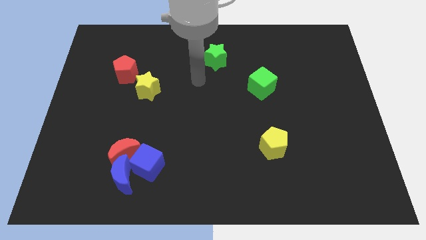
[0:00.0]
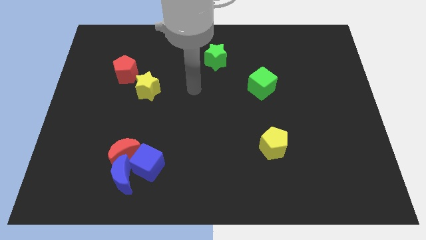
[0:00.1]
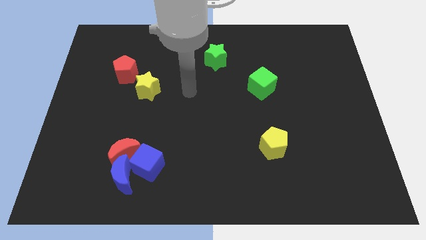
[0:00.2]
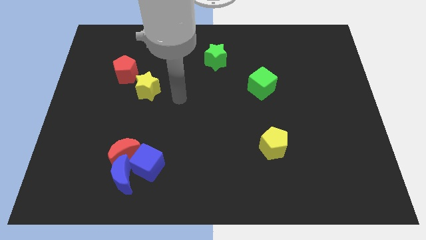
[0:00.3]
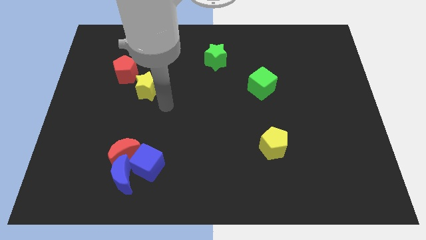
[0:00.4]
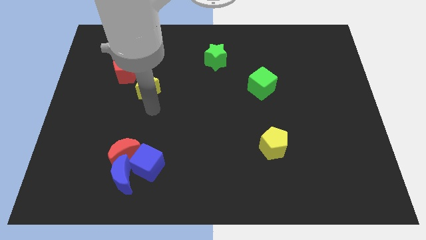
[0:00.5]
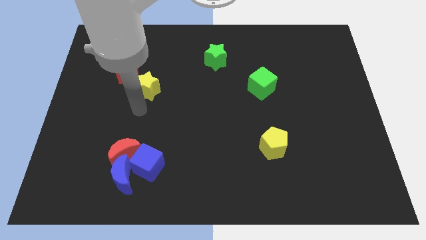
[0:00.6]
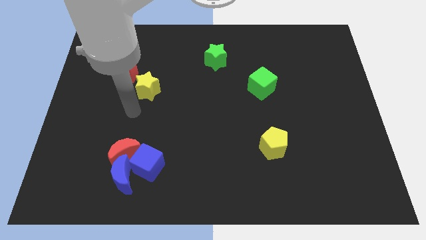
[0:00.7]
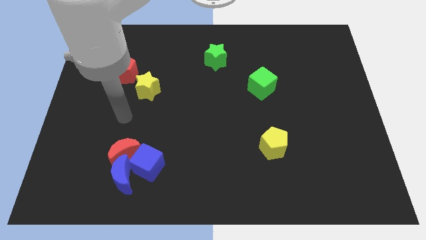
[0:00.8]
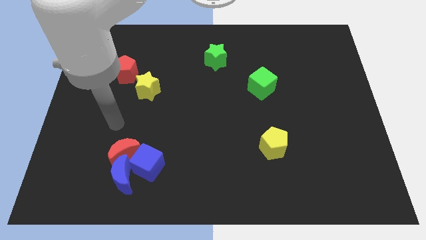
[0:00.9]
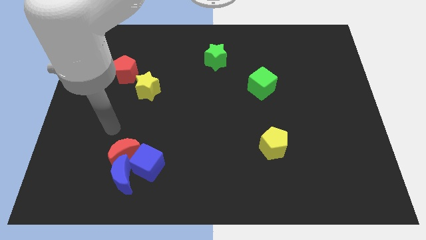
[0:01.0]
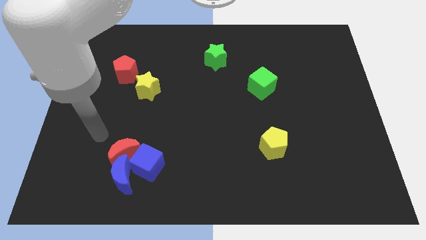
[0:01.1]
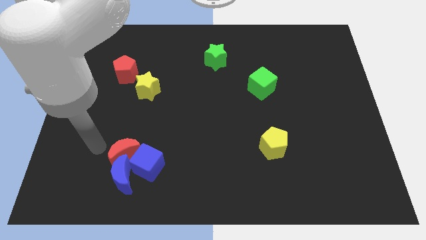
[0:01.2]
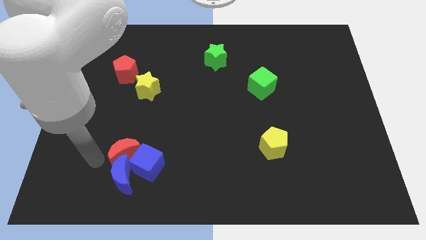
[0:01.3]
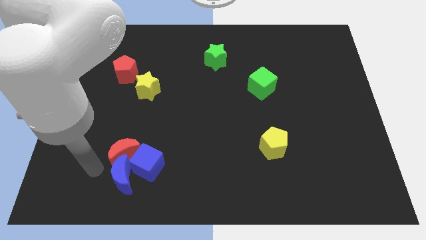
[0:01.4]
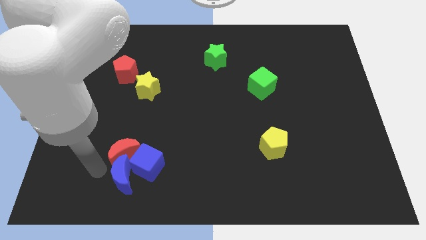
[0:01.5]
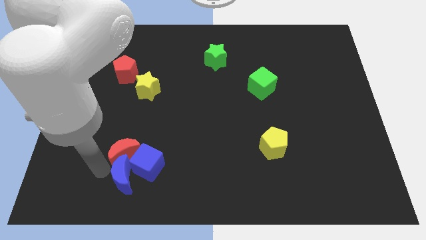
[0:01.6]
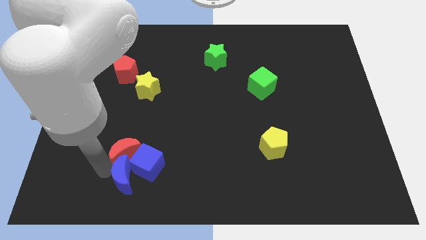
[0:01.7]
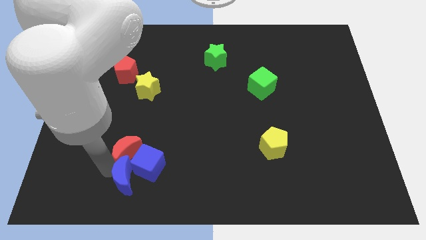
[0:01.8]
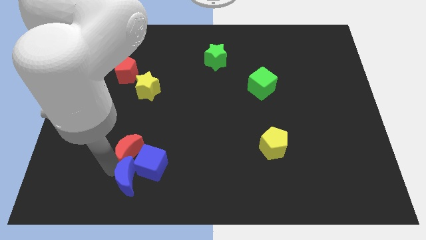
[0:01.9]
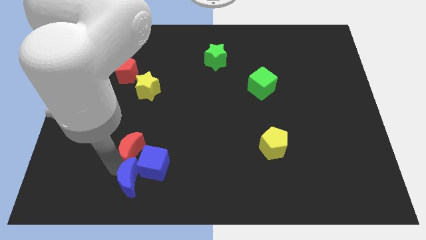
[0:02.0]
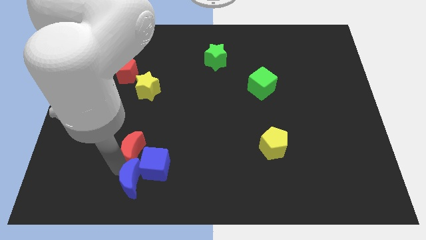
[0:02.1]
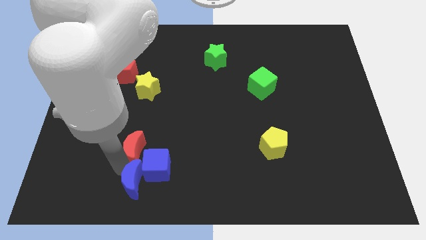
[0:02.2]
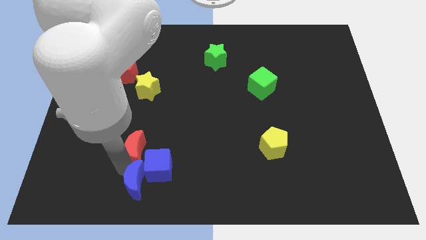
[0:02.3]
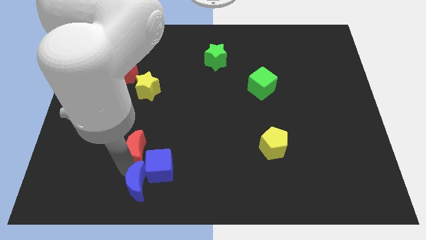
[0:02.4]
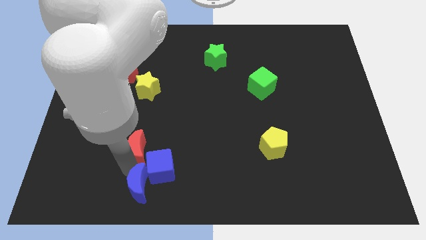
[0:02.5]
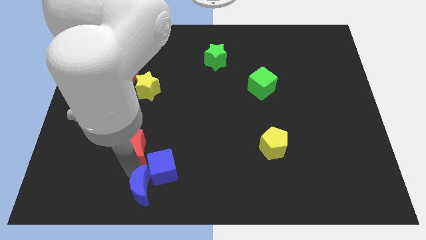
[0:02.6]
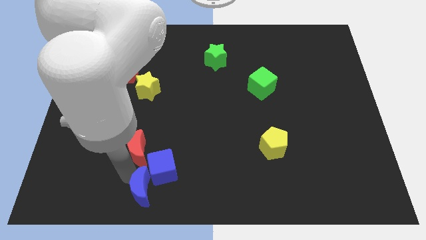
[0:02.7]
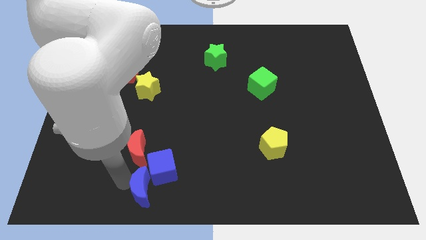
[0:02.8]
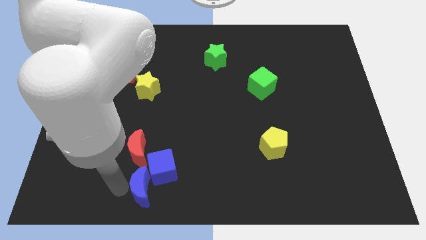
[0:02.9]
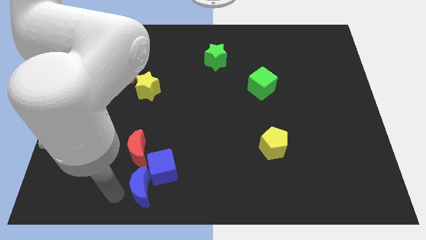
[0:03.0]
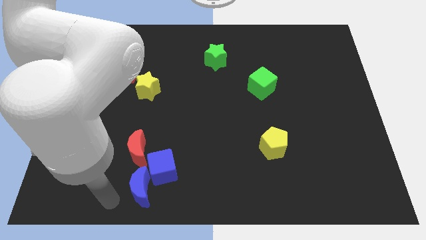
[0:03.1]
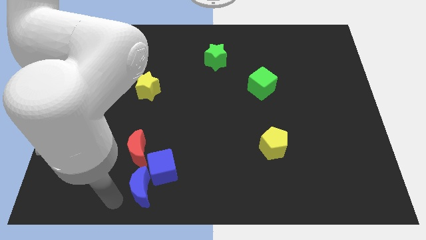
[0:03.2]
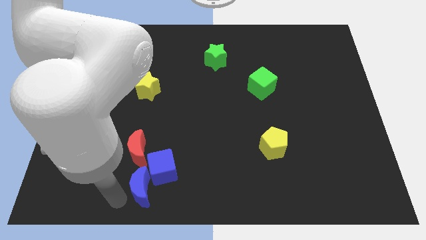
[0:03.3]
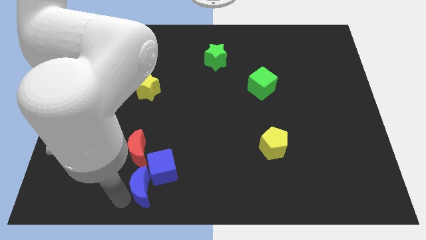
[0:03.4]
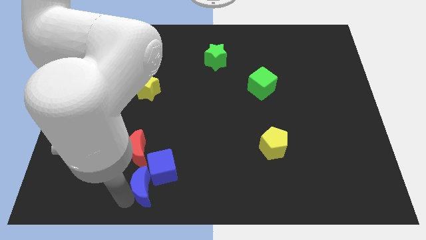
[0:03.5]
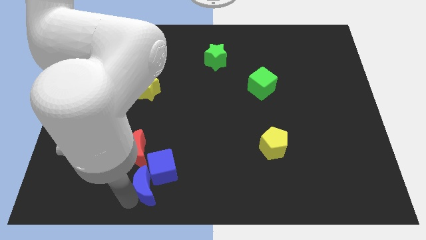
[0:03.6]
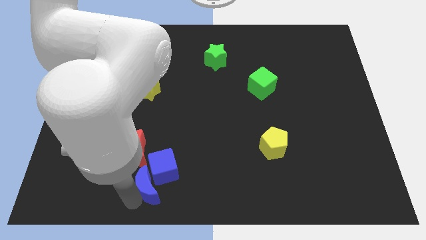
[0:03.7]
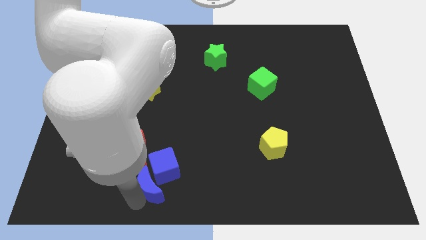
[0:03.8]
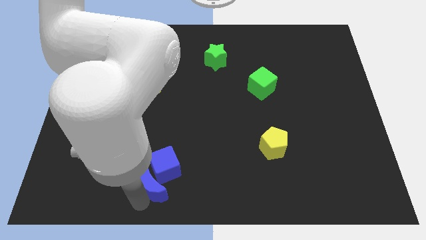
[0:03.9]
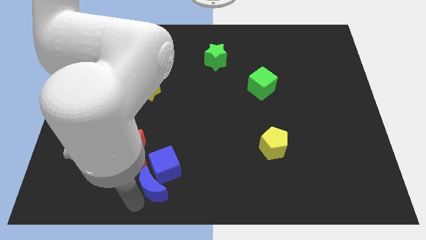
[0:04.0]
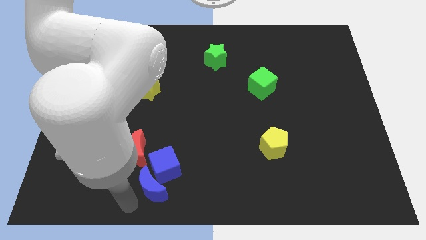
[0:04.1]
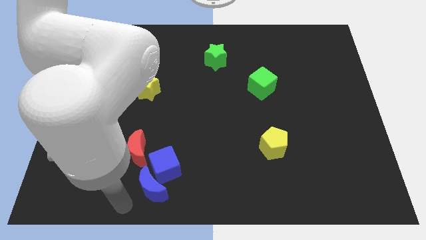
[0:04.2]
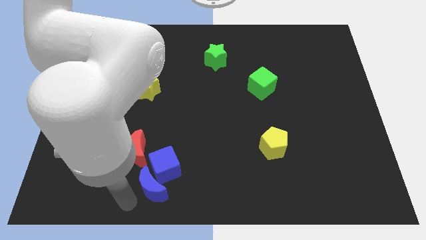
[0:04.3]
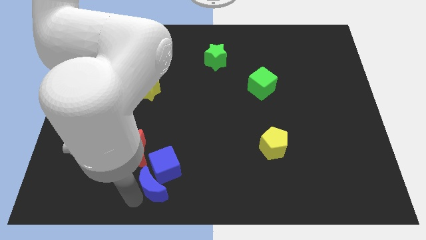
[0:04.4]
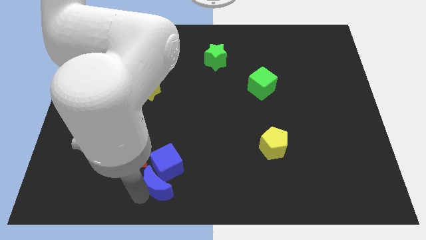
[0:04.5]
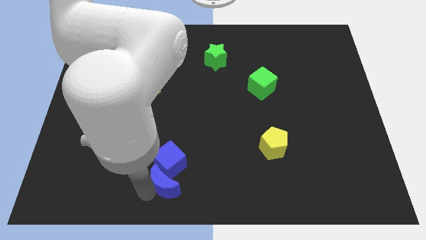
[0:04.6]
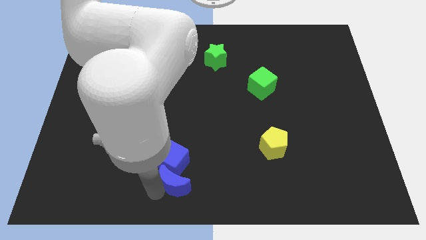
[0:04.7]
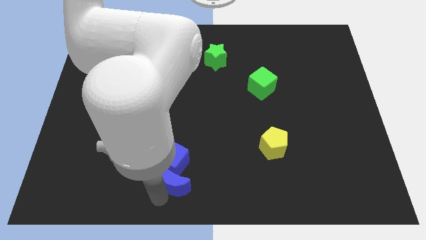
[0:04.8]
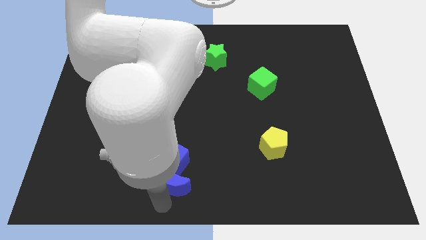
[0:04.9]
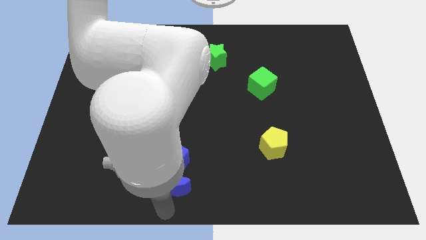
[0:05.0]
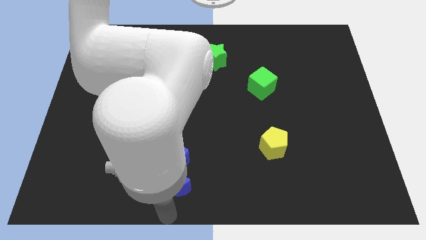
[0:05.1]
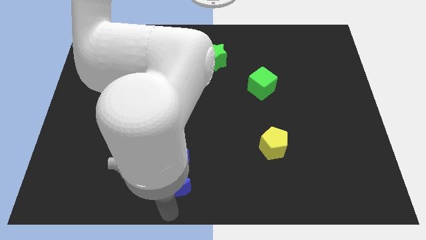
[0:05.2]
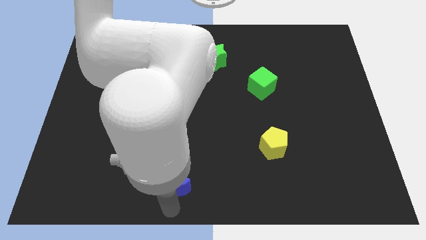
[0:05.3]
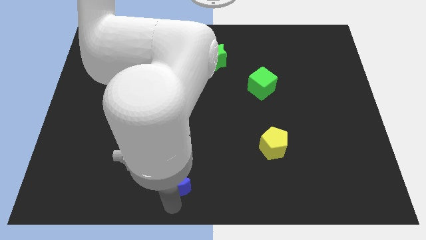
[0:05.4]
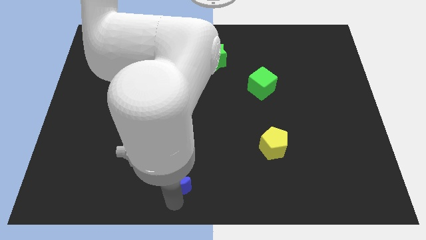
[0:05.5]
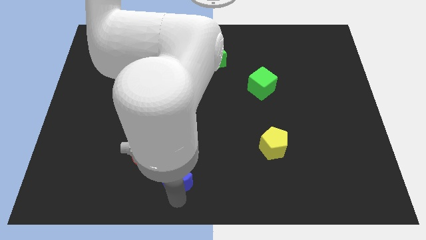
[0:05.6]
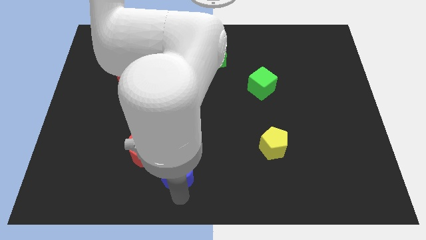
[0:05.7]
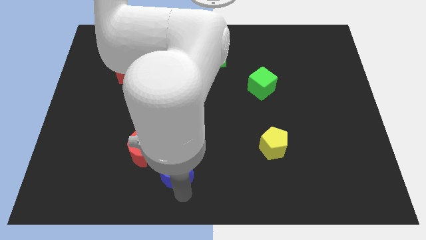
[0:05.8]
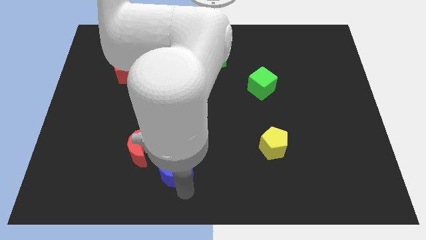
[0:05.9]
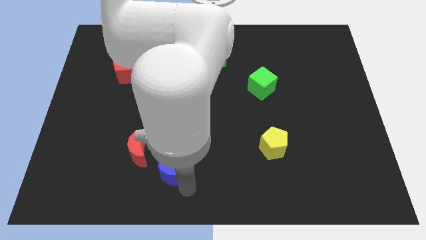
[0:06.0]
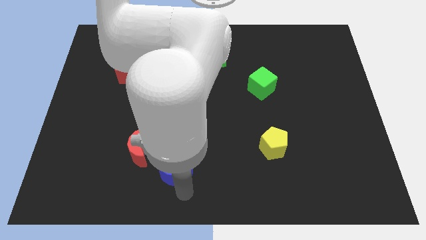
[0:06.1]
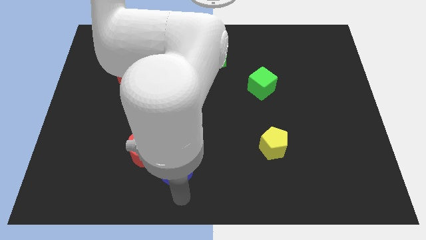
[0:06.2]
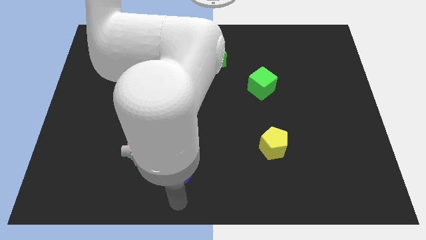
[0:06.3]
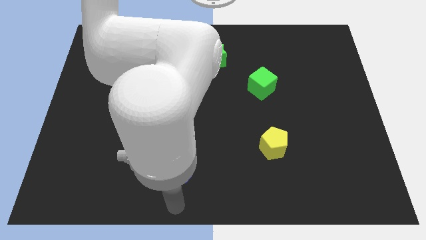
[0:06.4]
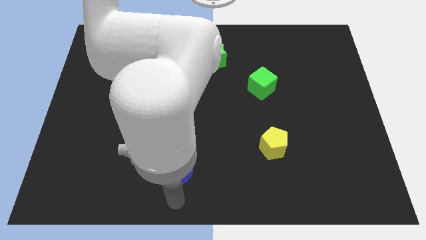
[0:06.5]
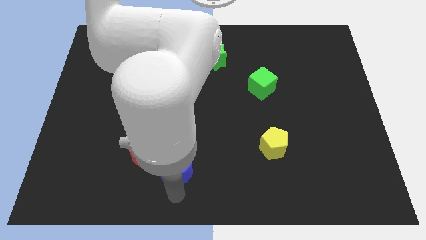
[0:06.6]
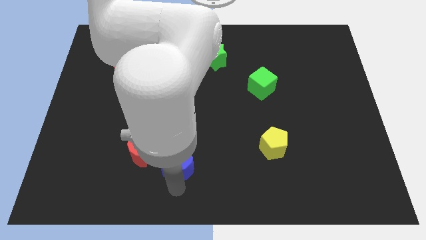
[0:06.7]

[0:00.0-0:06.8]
push the blue moon up and then to the right a little

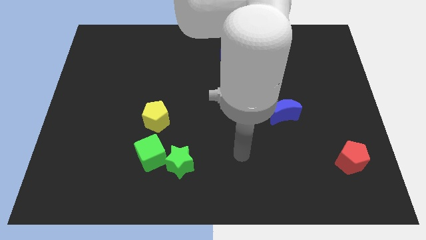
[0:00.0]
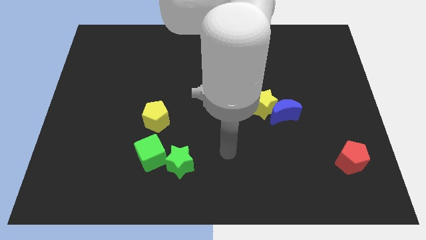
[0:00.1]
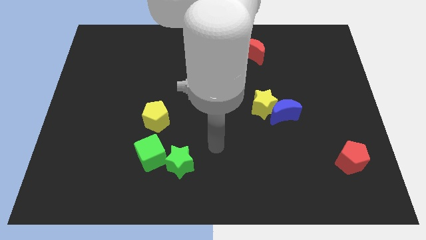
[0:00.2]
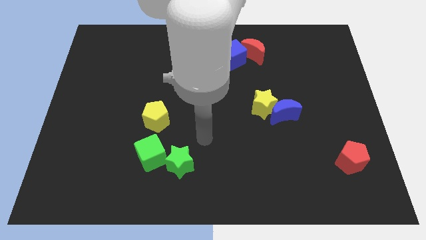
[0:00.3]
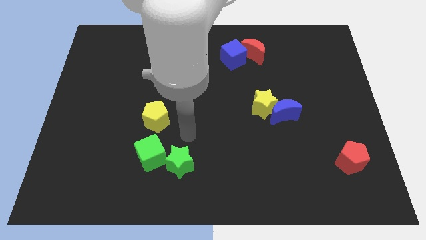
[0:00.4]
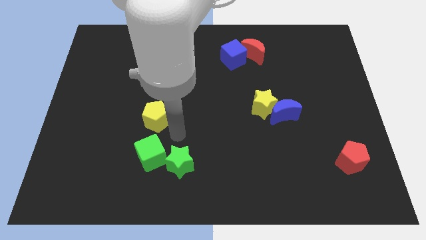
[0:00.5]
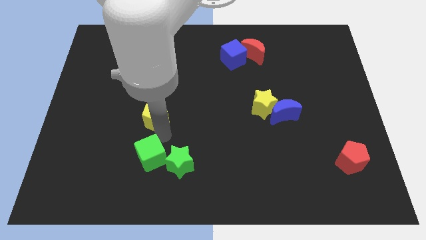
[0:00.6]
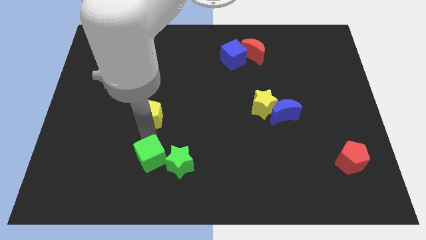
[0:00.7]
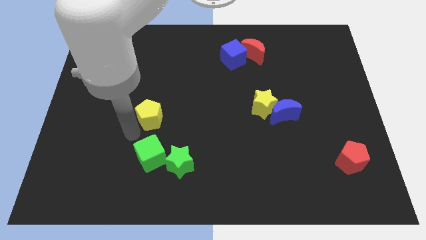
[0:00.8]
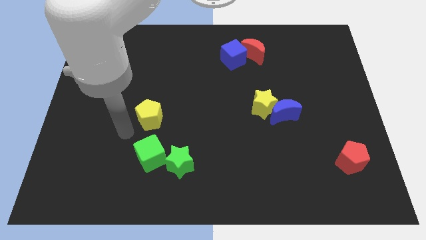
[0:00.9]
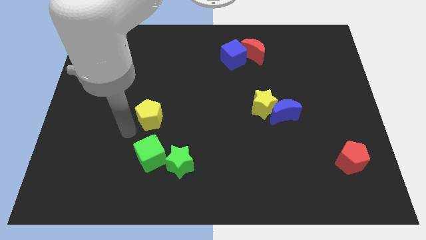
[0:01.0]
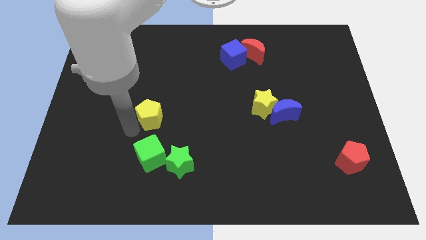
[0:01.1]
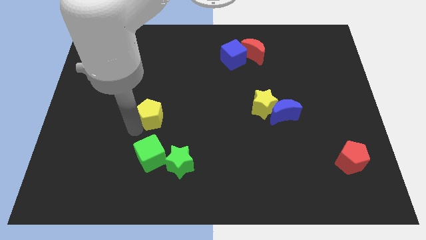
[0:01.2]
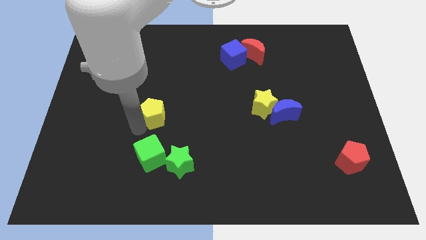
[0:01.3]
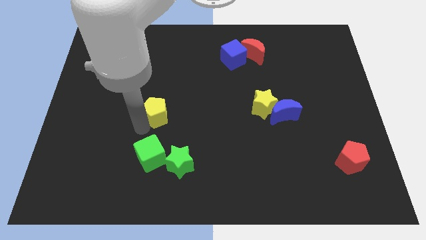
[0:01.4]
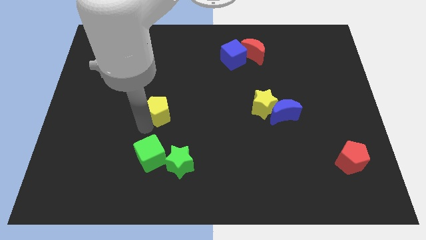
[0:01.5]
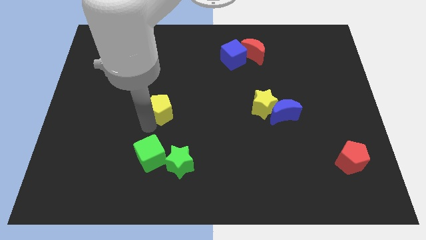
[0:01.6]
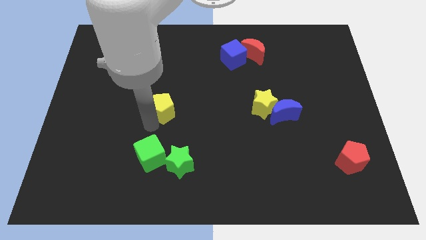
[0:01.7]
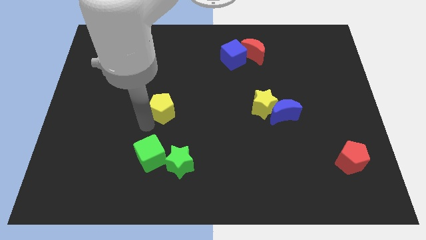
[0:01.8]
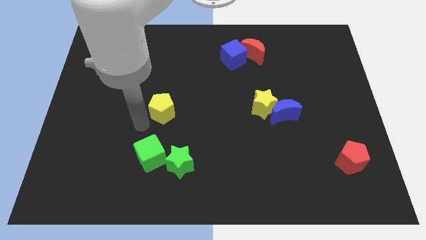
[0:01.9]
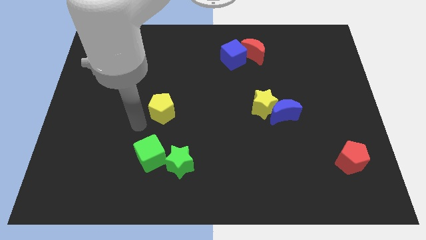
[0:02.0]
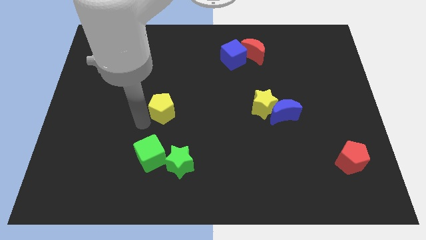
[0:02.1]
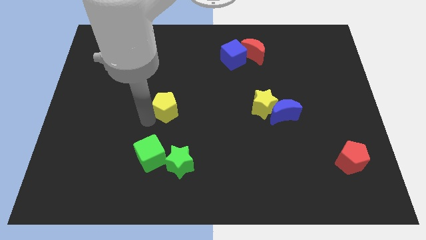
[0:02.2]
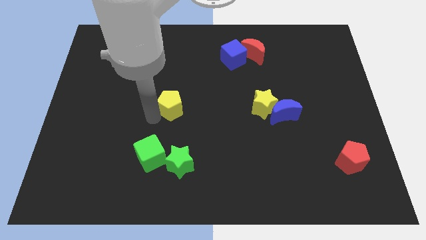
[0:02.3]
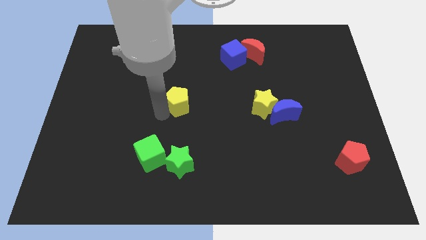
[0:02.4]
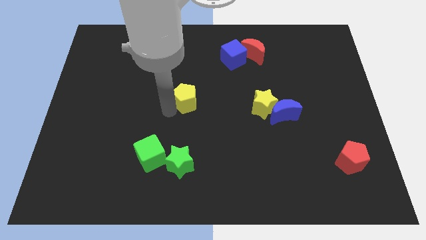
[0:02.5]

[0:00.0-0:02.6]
slightly slide the yellow pentagon up and right diagonally
